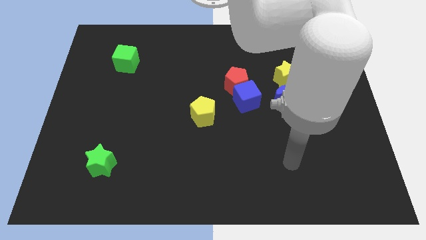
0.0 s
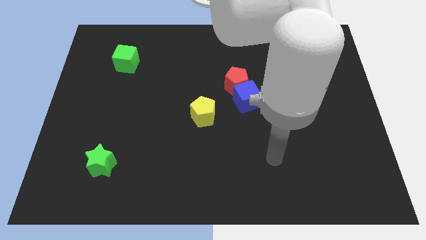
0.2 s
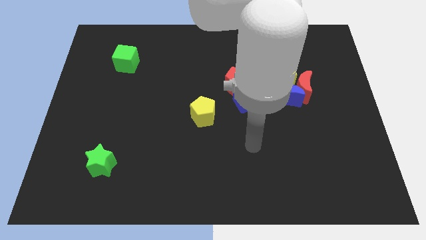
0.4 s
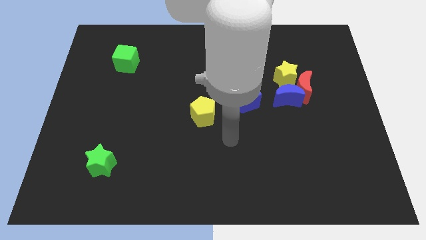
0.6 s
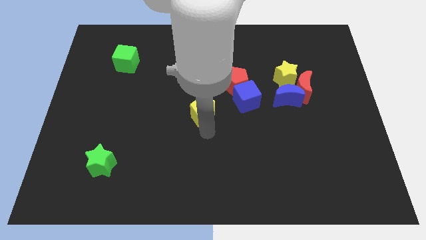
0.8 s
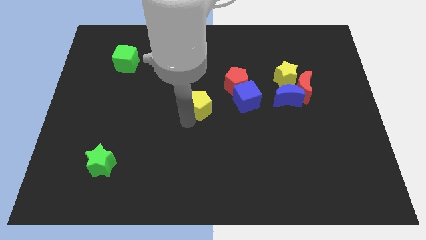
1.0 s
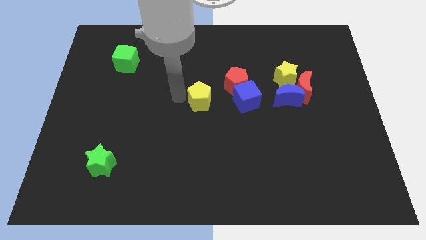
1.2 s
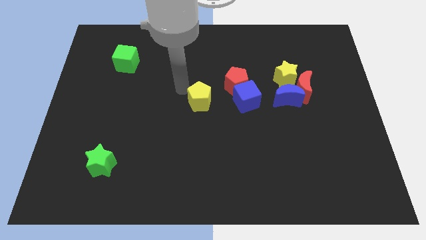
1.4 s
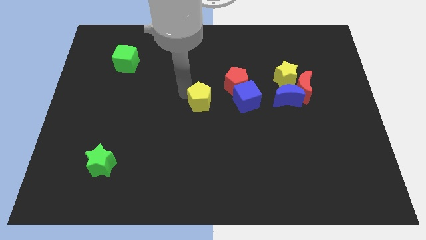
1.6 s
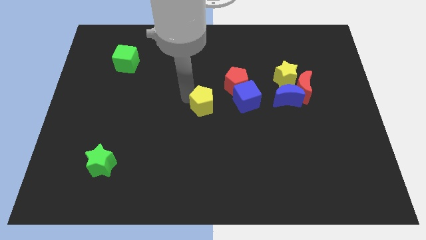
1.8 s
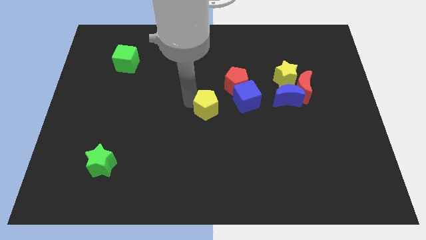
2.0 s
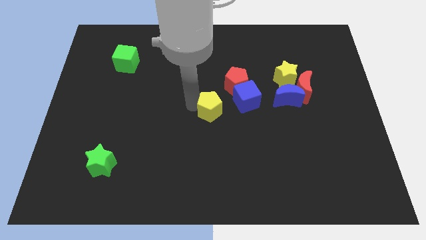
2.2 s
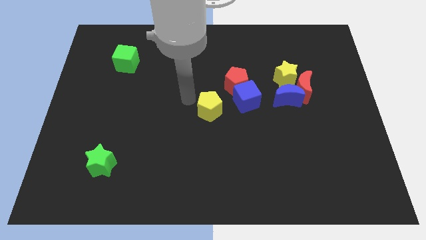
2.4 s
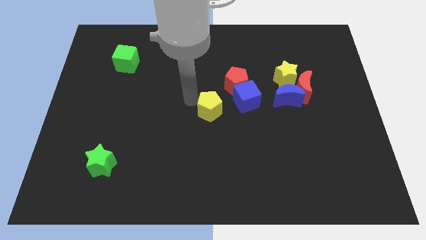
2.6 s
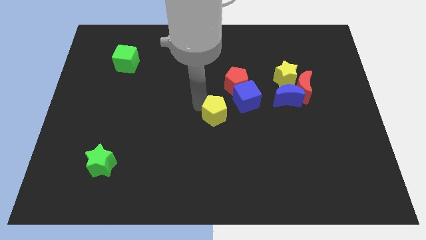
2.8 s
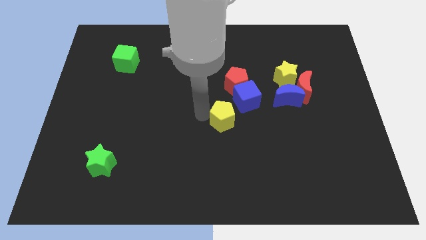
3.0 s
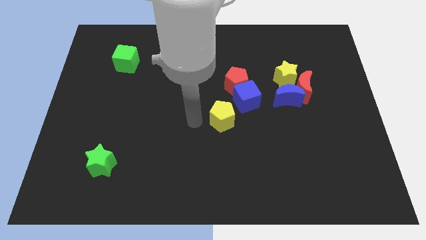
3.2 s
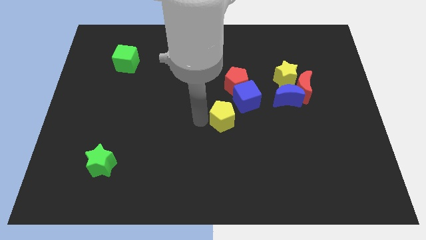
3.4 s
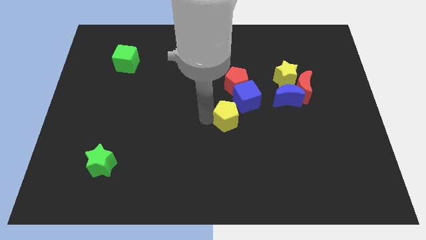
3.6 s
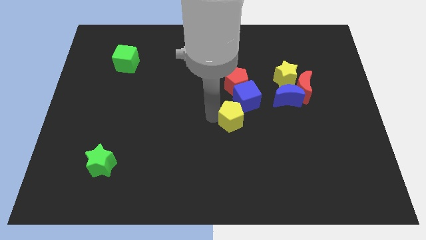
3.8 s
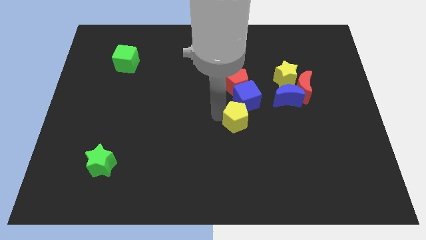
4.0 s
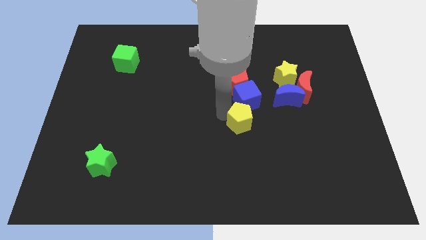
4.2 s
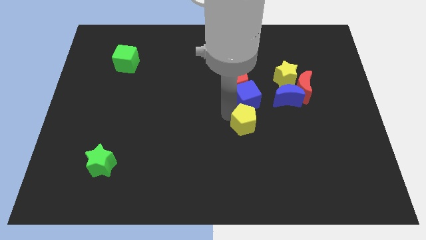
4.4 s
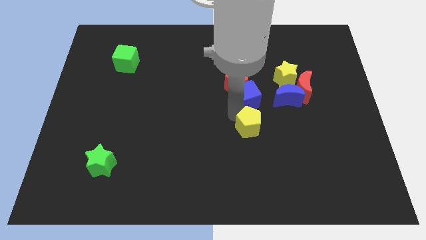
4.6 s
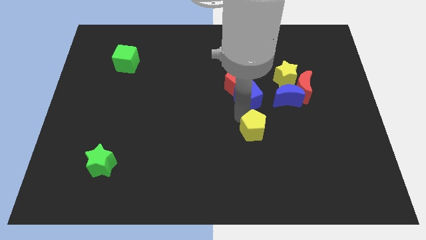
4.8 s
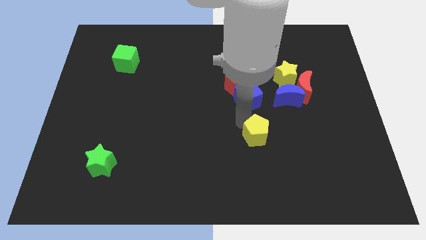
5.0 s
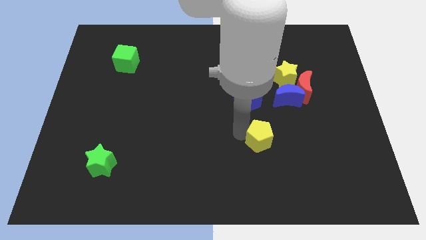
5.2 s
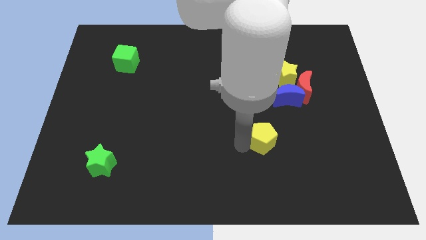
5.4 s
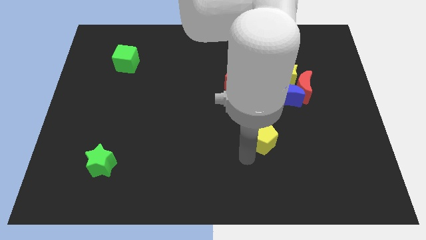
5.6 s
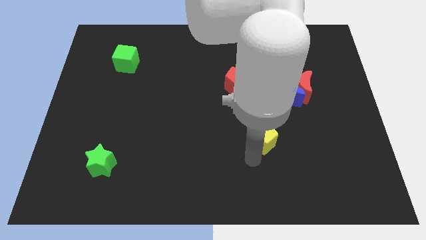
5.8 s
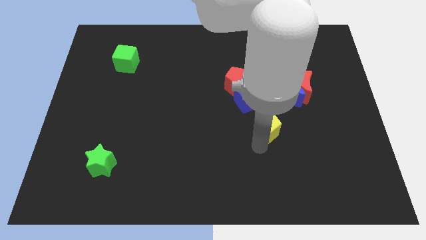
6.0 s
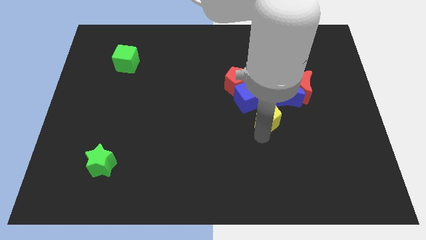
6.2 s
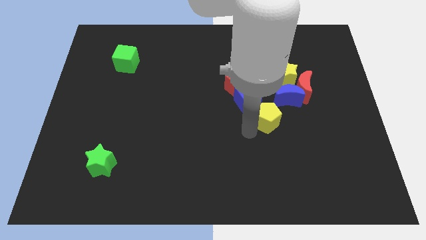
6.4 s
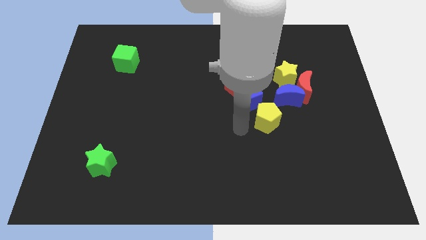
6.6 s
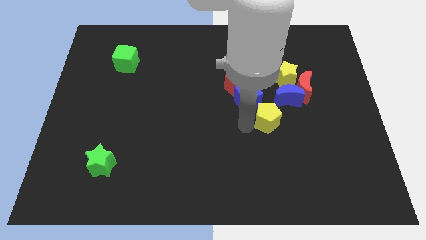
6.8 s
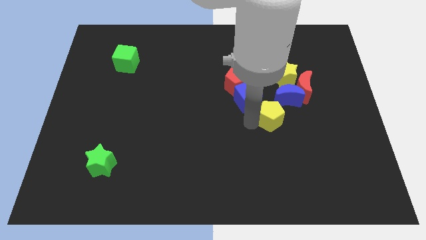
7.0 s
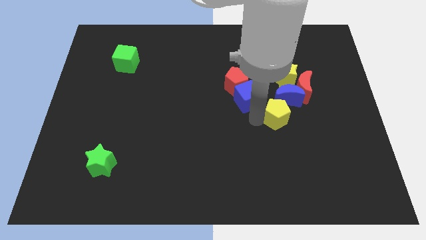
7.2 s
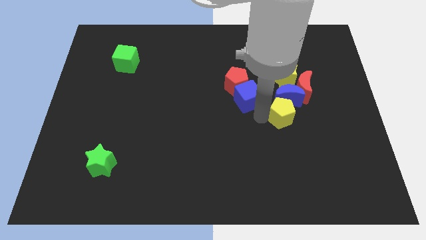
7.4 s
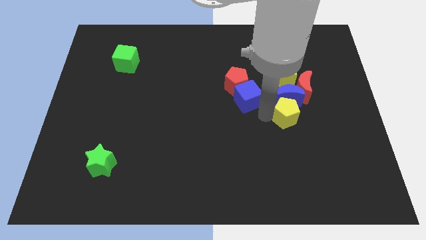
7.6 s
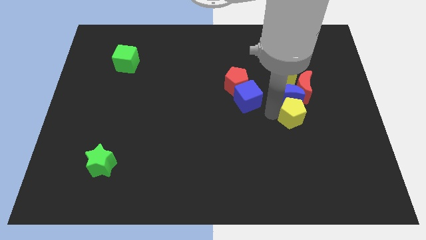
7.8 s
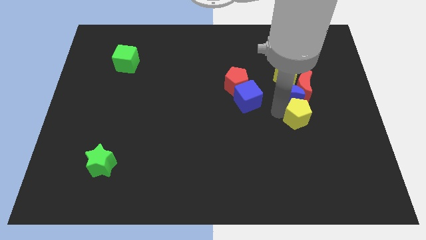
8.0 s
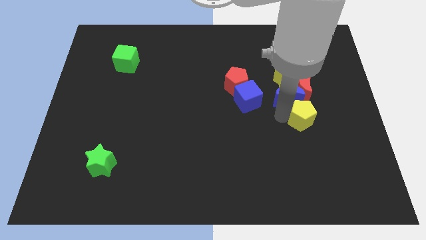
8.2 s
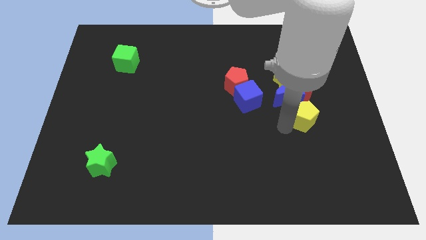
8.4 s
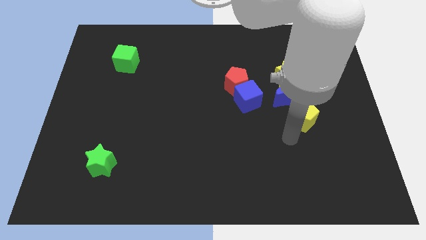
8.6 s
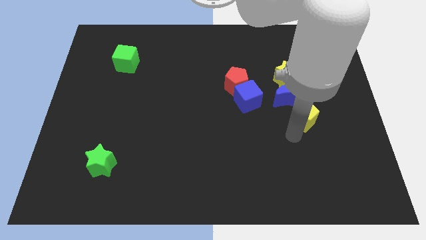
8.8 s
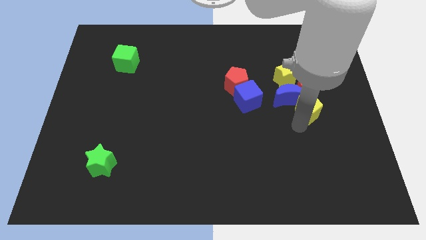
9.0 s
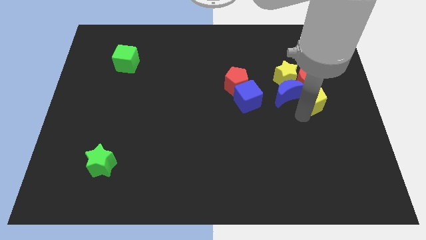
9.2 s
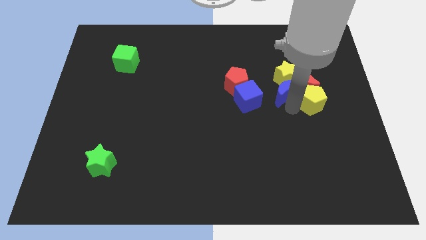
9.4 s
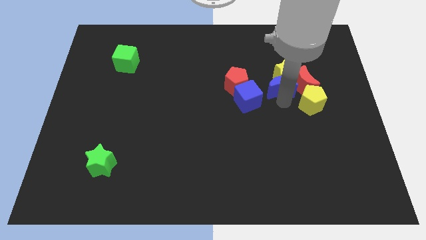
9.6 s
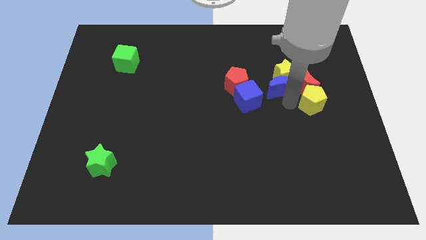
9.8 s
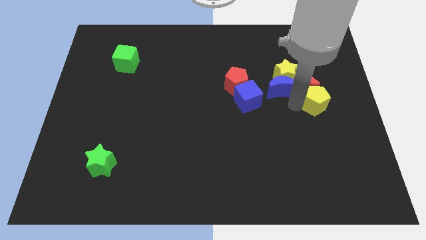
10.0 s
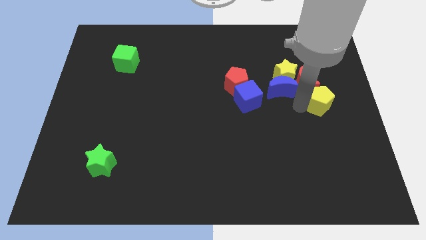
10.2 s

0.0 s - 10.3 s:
push the yellow pentagon to the right side of the board

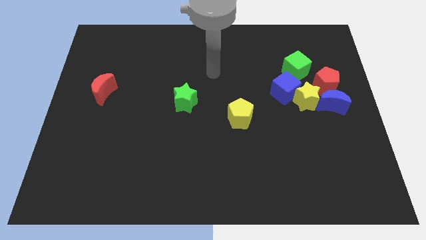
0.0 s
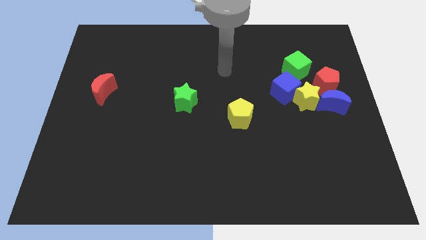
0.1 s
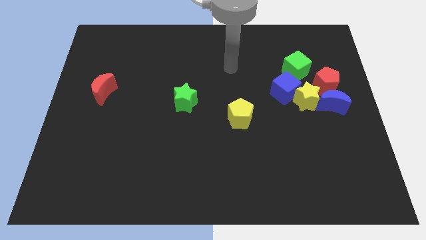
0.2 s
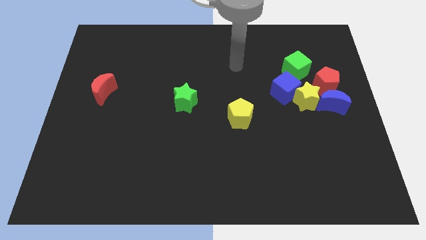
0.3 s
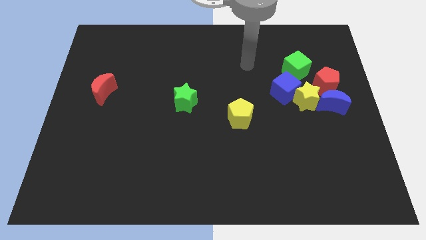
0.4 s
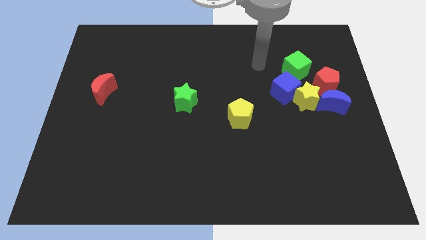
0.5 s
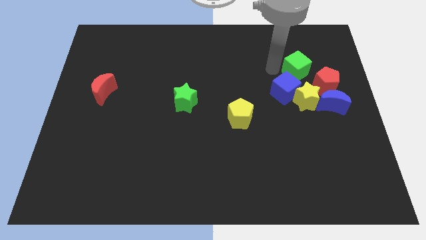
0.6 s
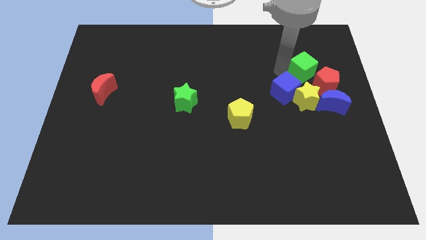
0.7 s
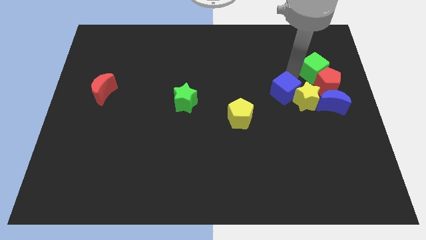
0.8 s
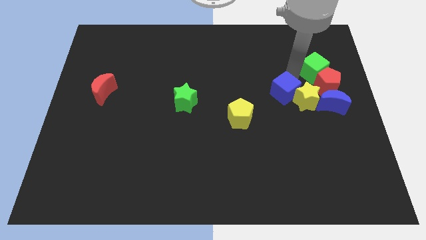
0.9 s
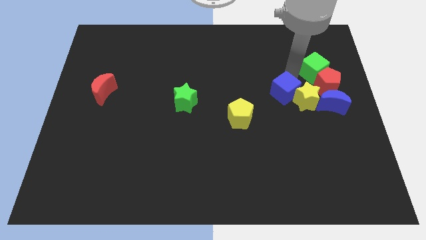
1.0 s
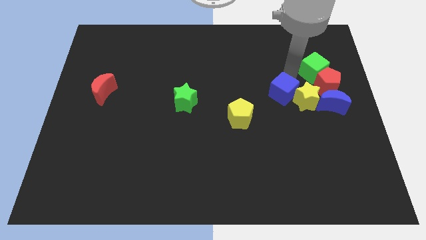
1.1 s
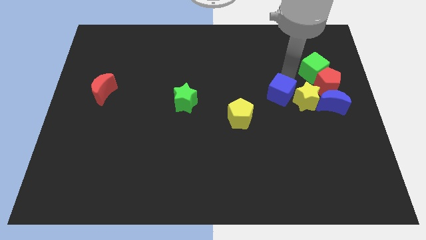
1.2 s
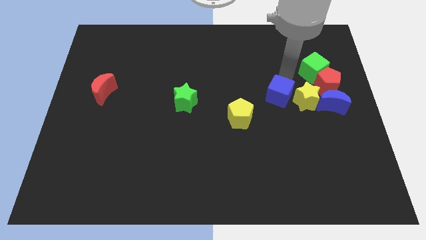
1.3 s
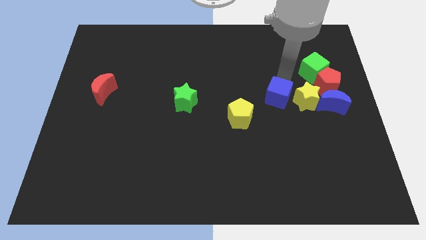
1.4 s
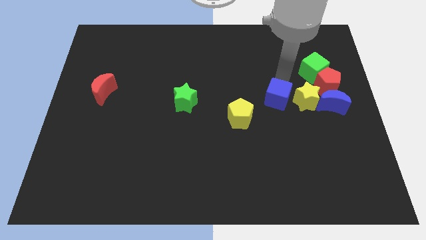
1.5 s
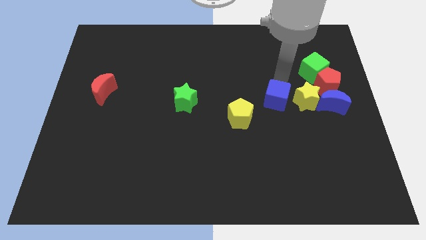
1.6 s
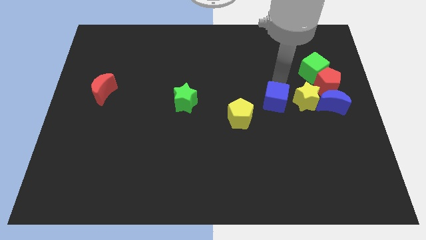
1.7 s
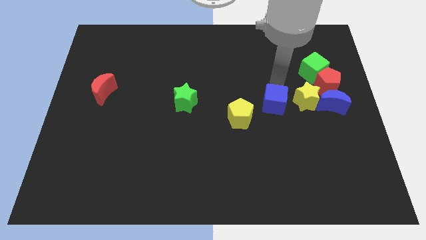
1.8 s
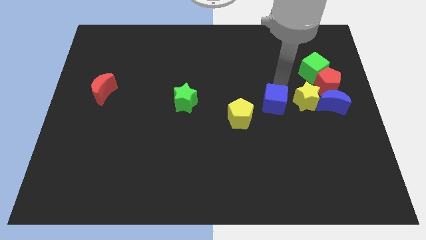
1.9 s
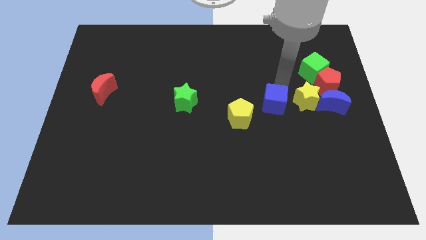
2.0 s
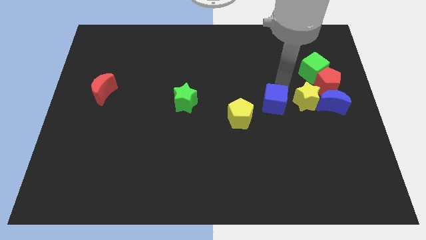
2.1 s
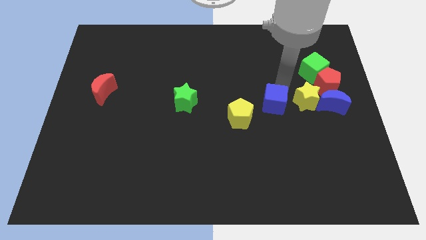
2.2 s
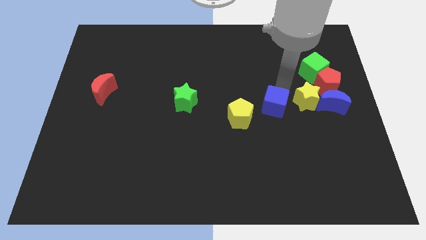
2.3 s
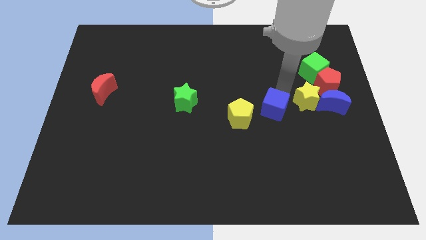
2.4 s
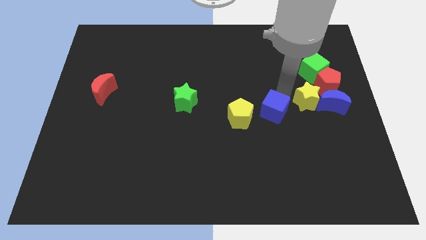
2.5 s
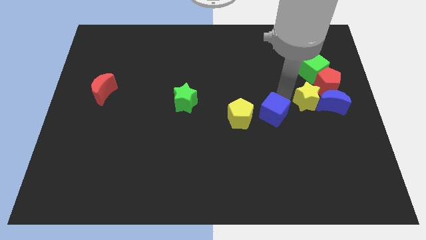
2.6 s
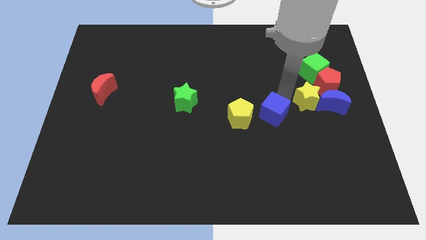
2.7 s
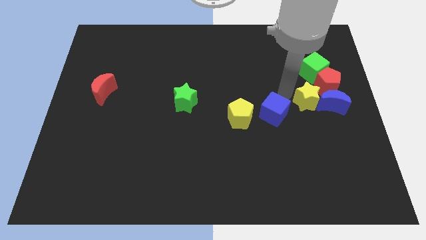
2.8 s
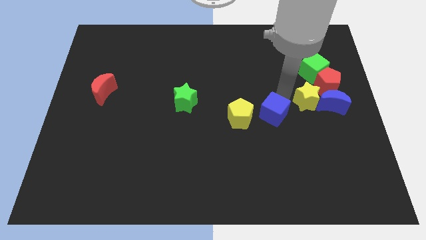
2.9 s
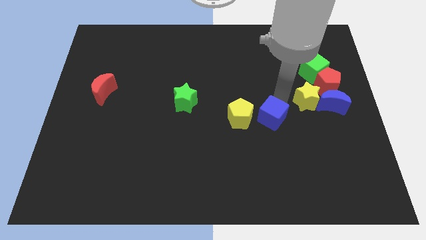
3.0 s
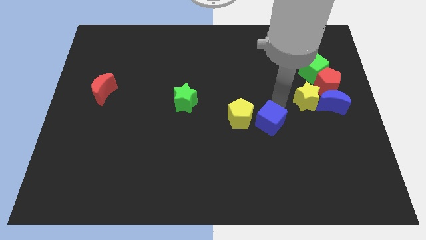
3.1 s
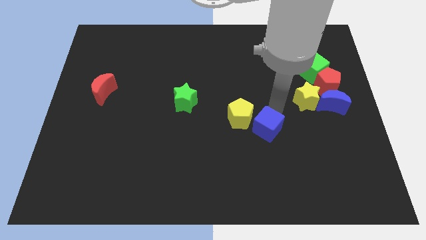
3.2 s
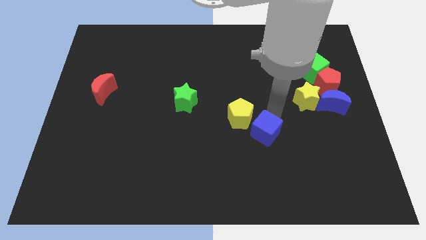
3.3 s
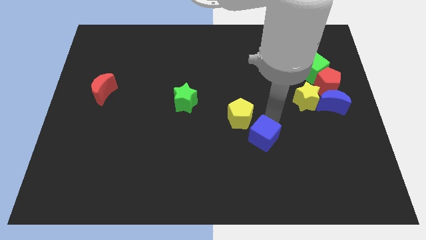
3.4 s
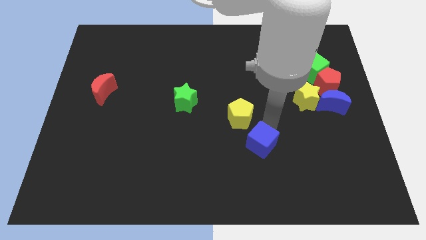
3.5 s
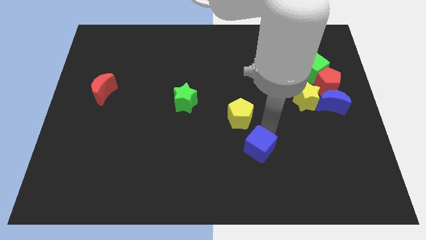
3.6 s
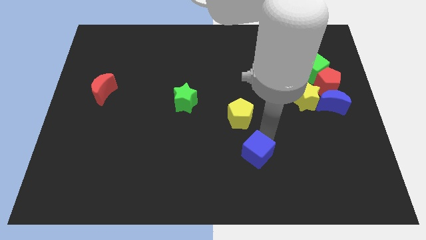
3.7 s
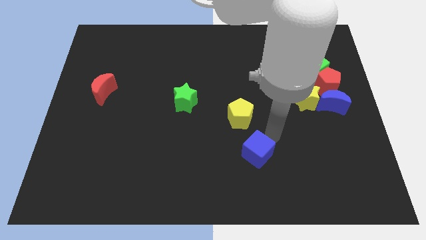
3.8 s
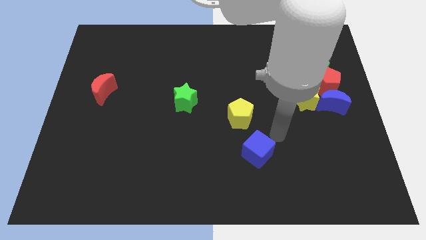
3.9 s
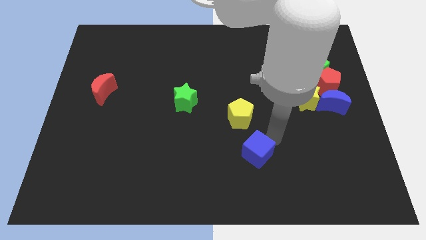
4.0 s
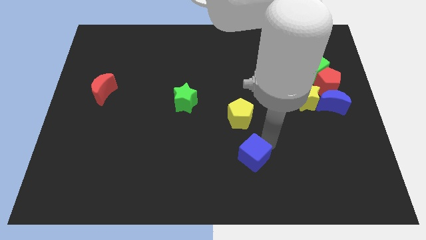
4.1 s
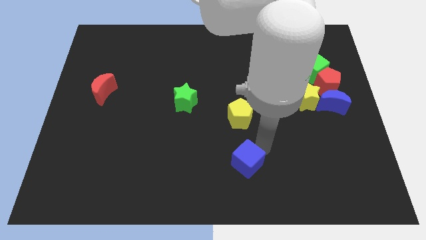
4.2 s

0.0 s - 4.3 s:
push the blue cube to the bottom
